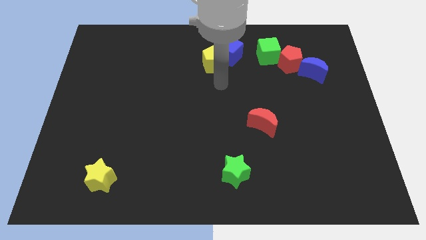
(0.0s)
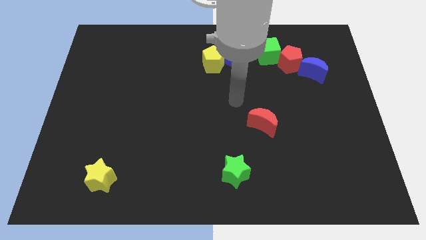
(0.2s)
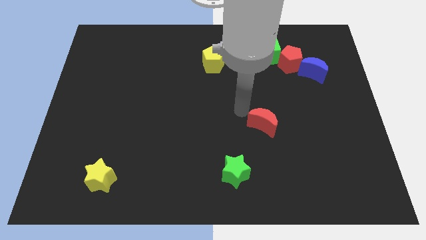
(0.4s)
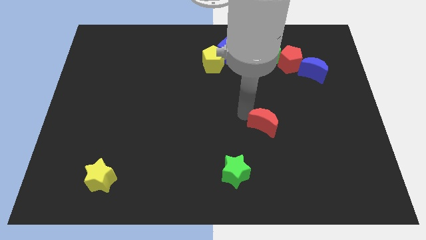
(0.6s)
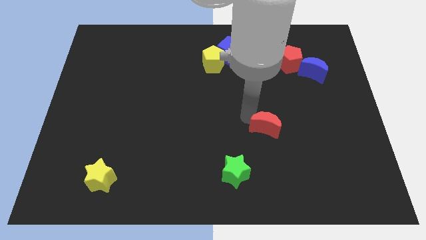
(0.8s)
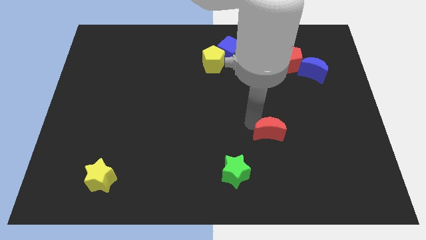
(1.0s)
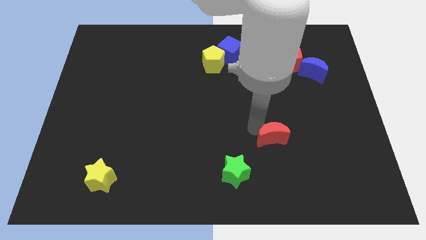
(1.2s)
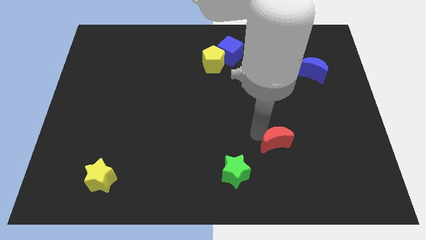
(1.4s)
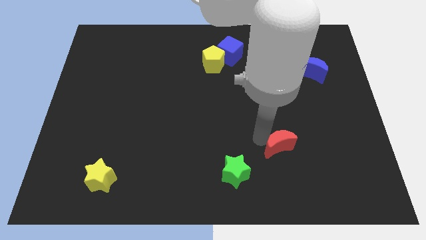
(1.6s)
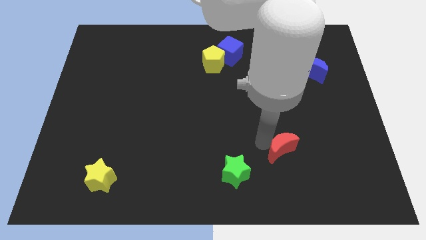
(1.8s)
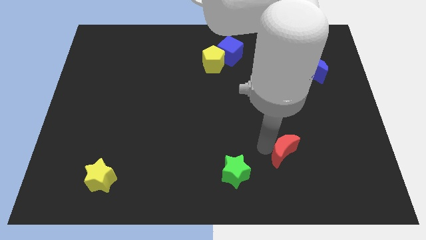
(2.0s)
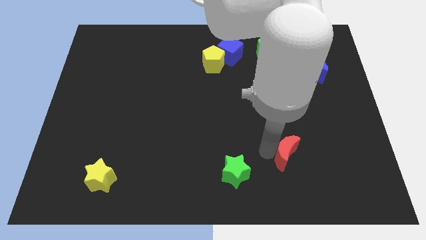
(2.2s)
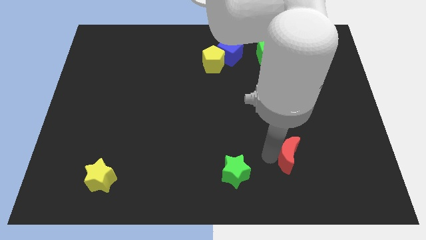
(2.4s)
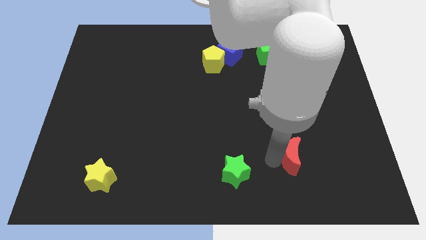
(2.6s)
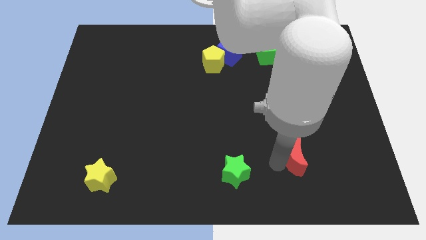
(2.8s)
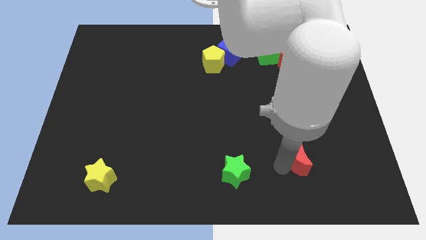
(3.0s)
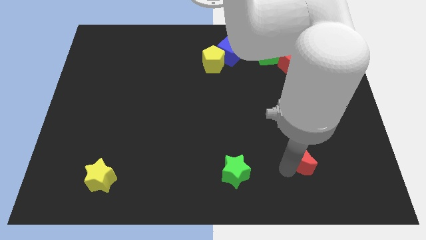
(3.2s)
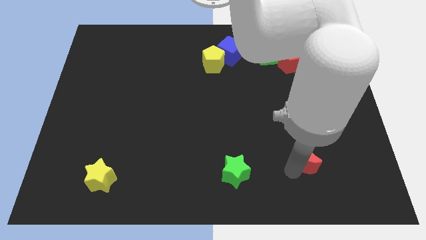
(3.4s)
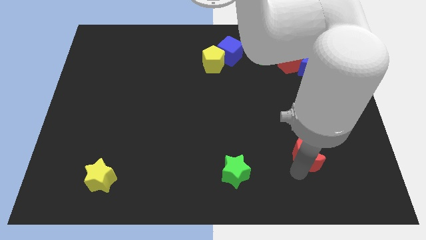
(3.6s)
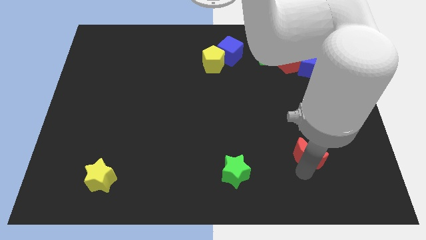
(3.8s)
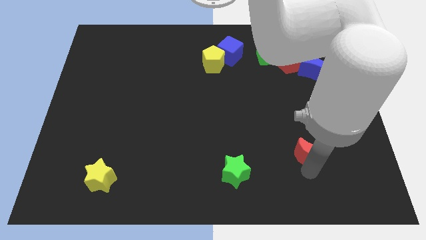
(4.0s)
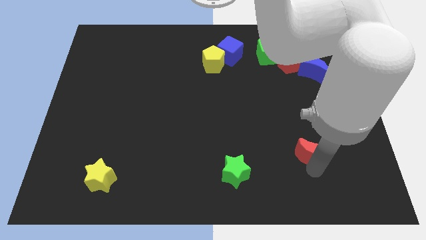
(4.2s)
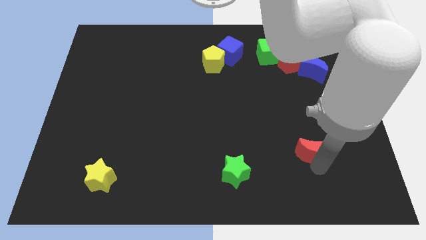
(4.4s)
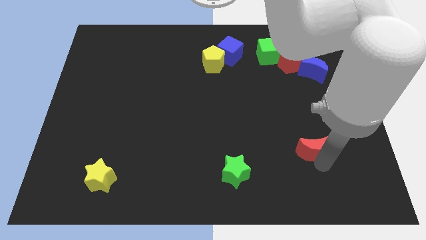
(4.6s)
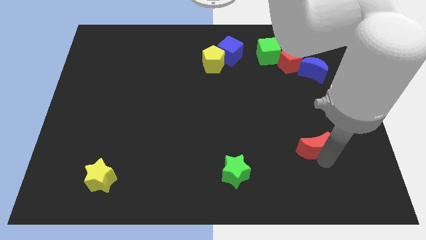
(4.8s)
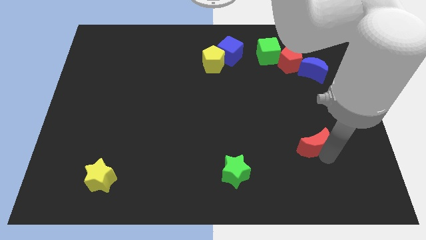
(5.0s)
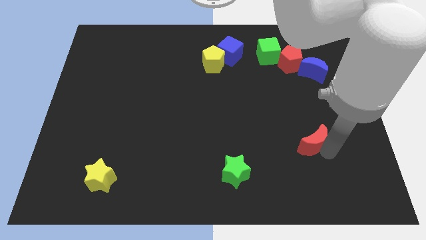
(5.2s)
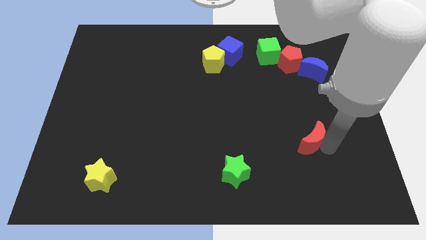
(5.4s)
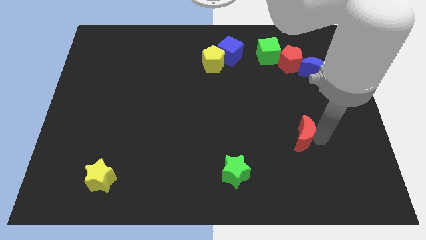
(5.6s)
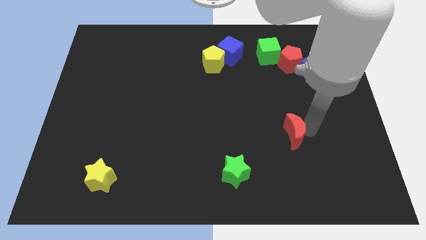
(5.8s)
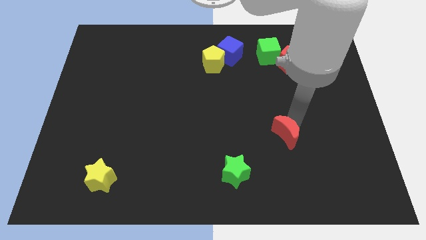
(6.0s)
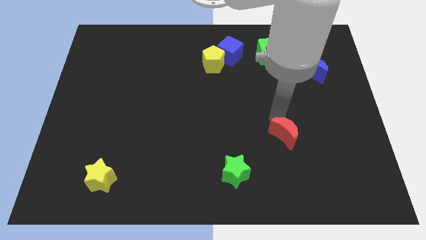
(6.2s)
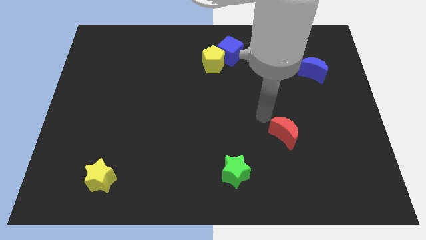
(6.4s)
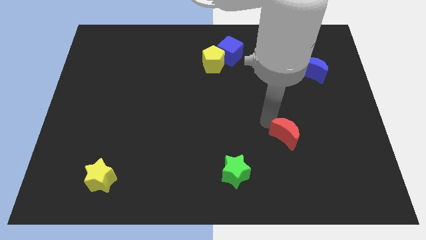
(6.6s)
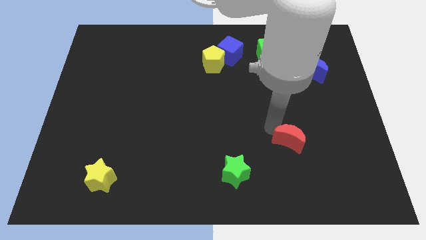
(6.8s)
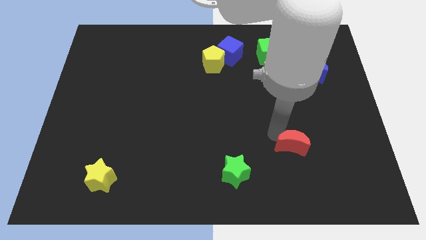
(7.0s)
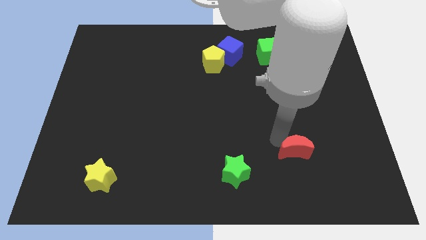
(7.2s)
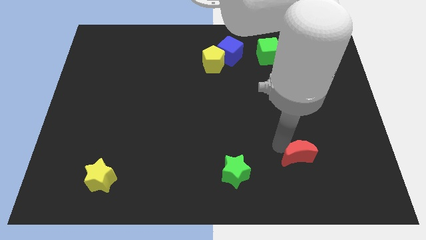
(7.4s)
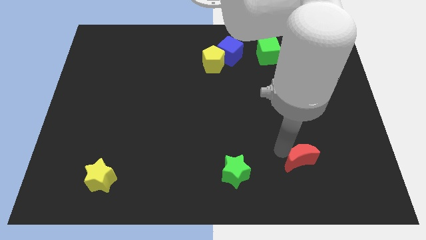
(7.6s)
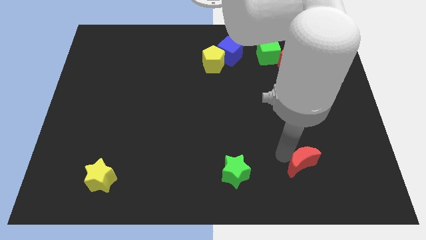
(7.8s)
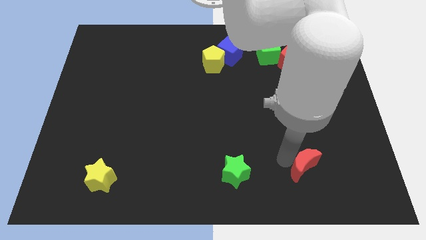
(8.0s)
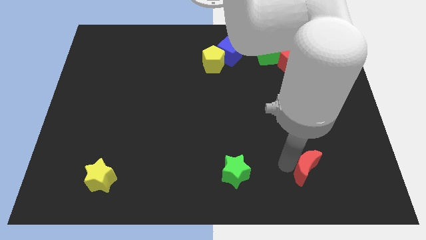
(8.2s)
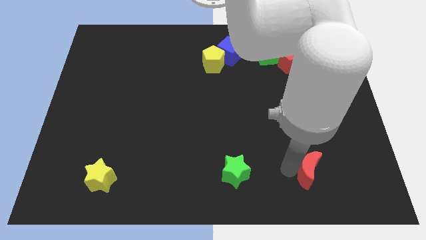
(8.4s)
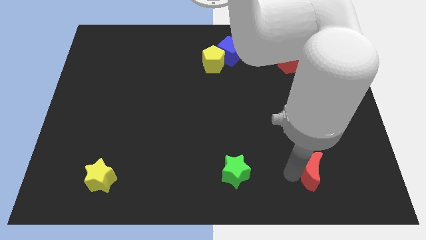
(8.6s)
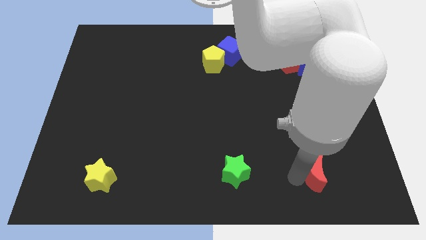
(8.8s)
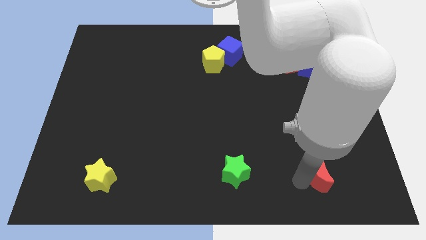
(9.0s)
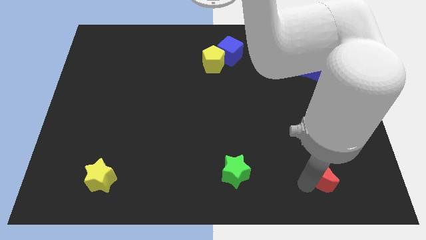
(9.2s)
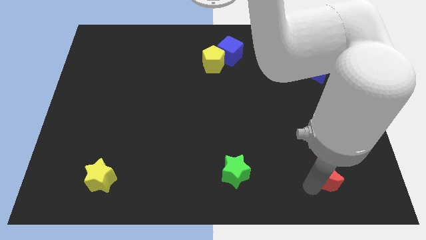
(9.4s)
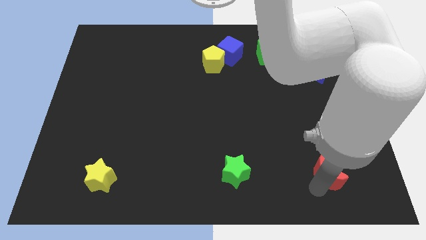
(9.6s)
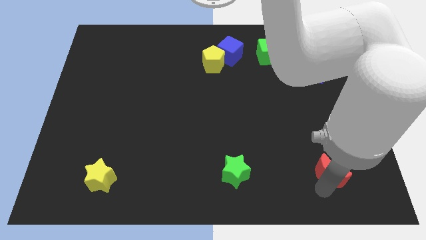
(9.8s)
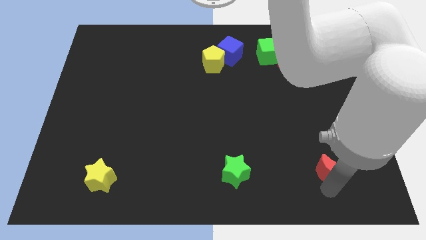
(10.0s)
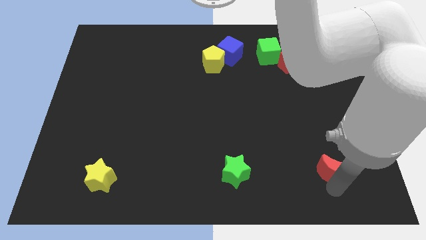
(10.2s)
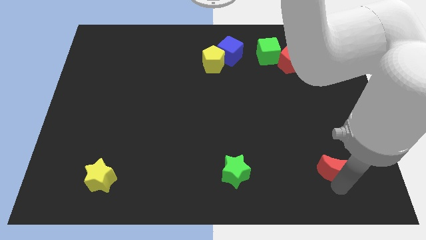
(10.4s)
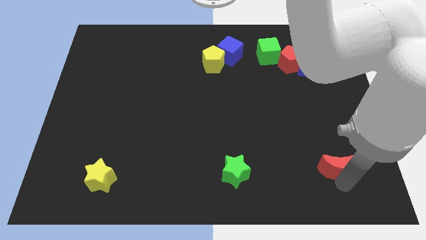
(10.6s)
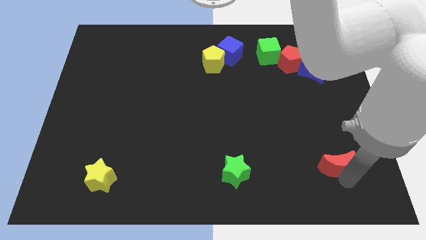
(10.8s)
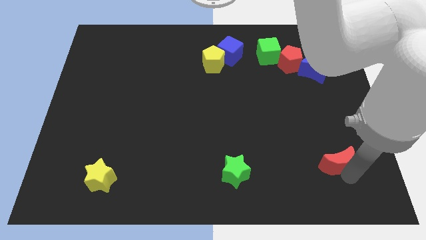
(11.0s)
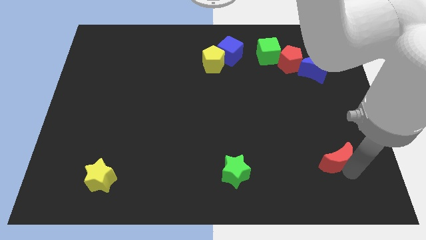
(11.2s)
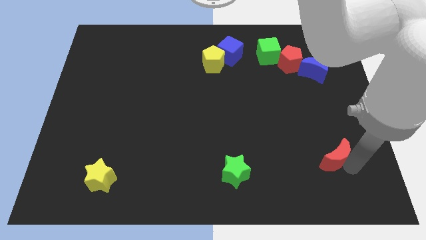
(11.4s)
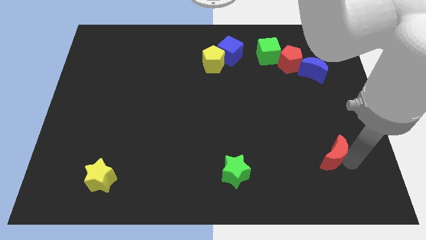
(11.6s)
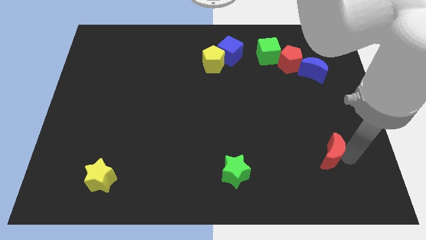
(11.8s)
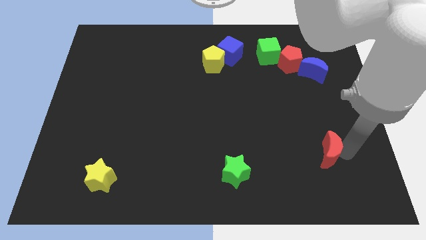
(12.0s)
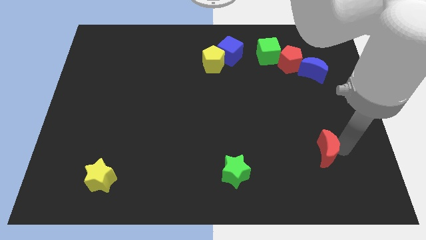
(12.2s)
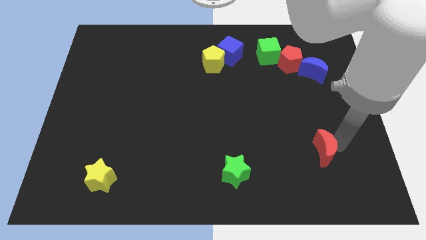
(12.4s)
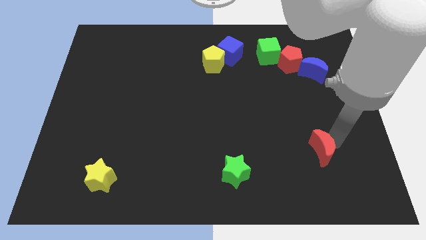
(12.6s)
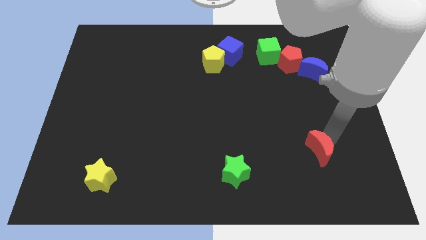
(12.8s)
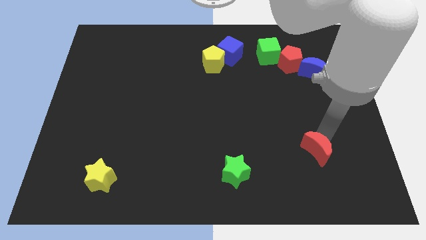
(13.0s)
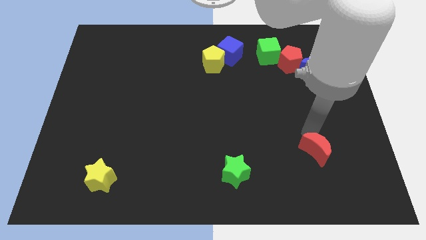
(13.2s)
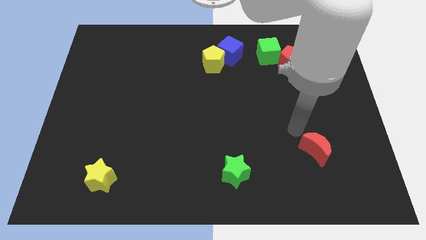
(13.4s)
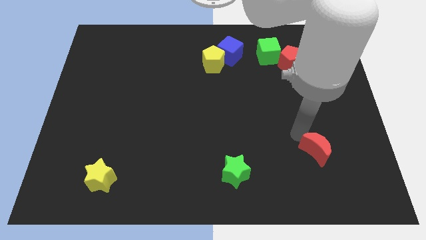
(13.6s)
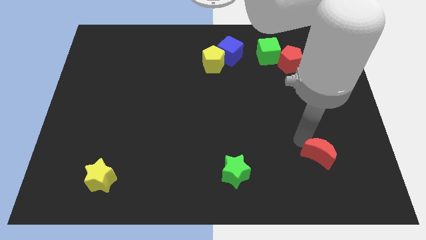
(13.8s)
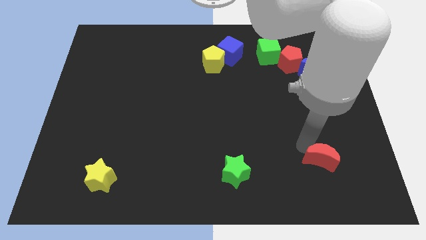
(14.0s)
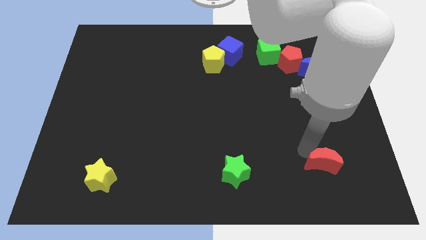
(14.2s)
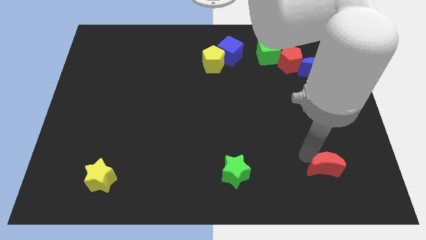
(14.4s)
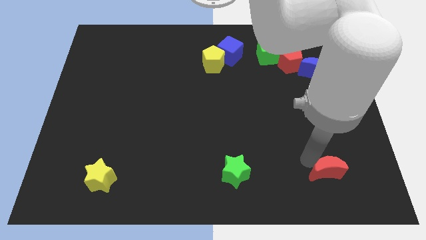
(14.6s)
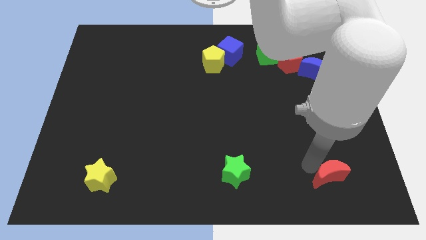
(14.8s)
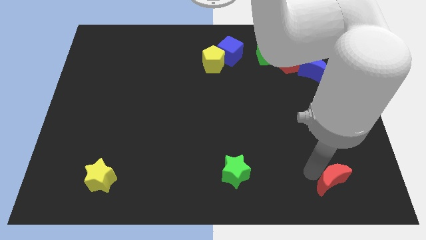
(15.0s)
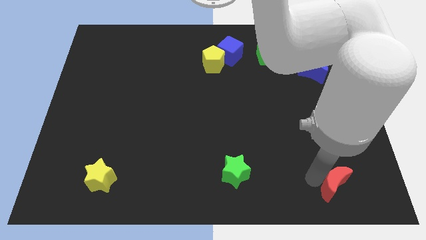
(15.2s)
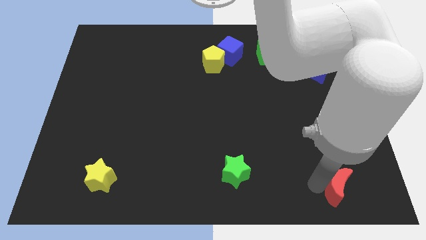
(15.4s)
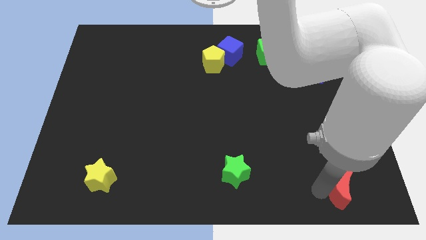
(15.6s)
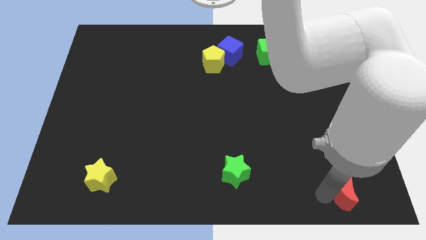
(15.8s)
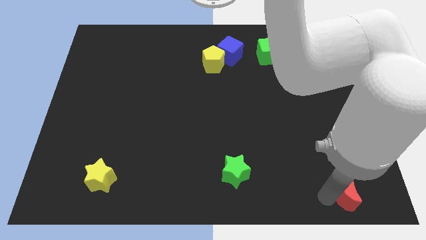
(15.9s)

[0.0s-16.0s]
put the red moon to the bottom right corner
